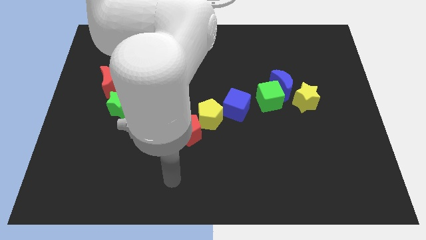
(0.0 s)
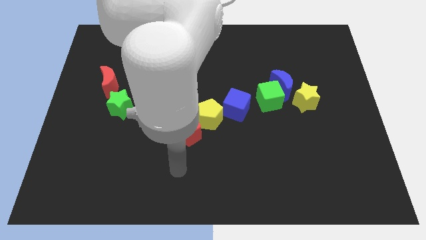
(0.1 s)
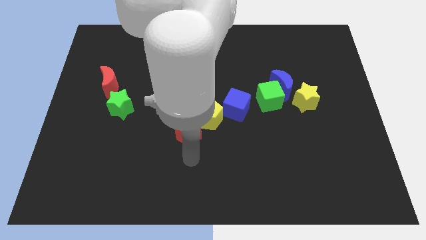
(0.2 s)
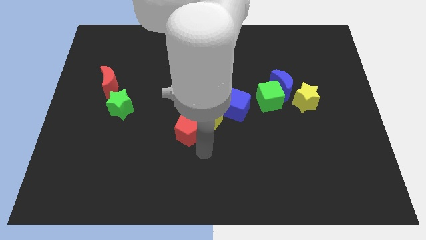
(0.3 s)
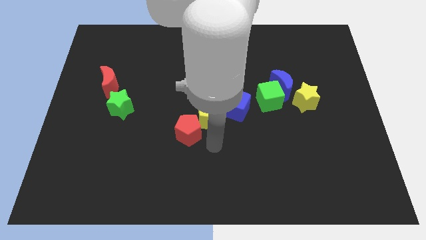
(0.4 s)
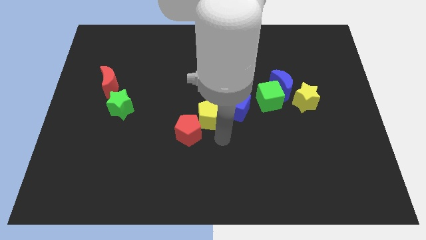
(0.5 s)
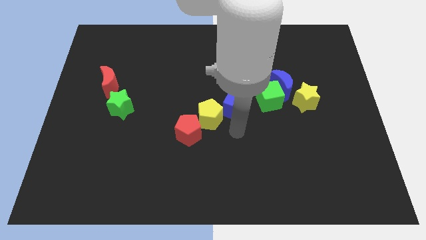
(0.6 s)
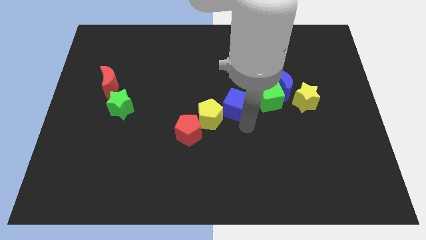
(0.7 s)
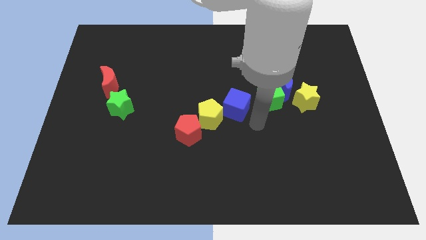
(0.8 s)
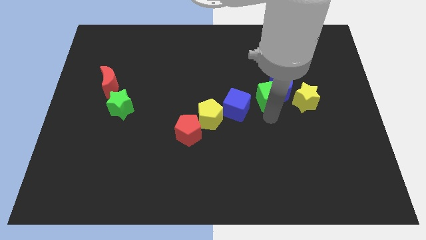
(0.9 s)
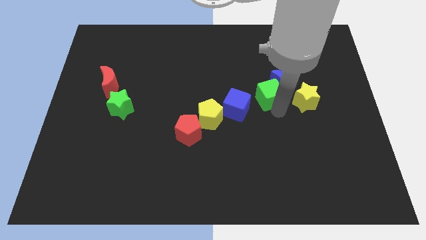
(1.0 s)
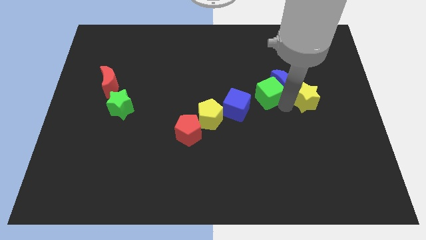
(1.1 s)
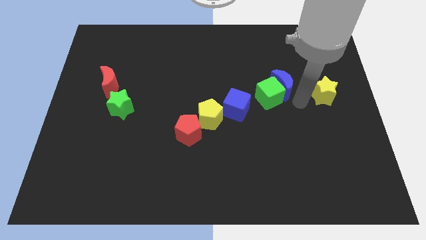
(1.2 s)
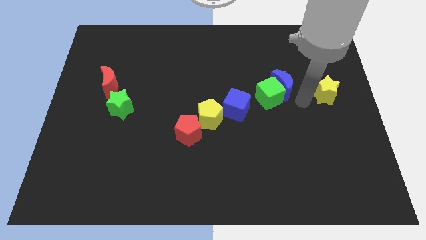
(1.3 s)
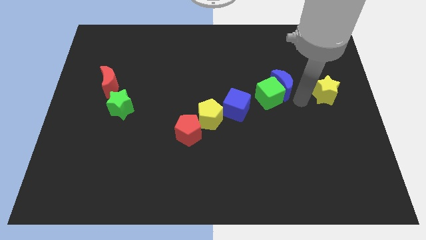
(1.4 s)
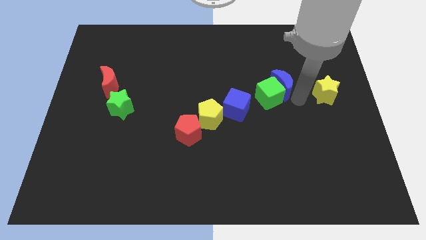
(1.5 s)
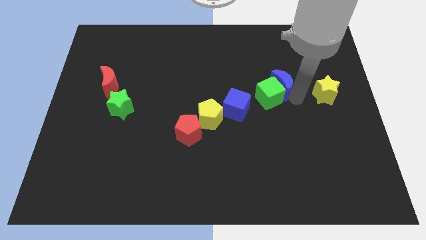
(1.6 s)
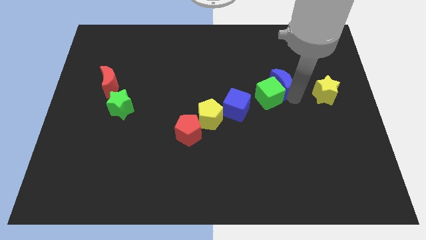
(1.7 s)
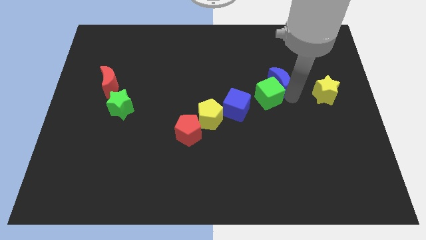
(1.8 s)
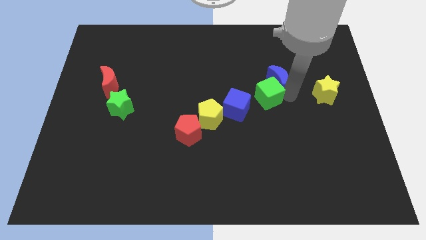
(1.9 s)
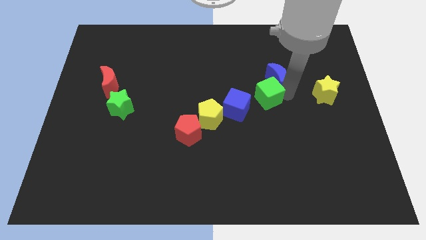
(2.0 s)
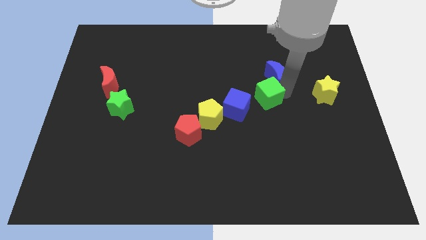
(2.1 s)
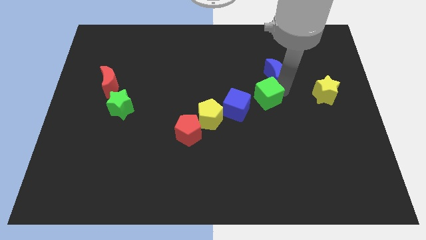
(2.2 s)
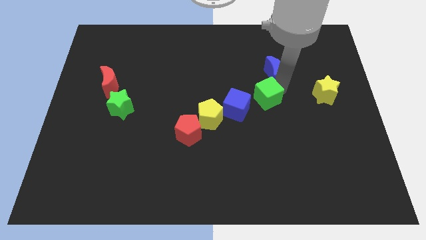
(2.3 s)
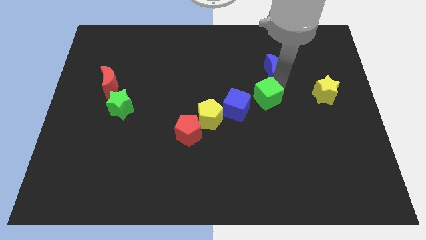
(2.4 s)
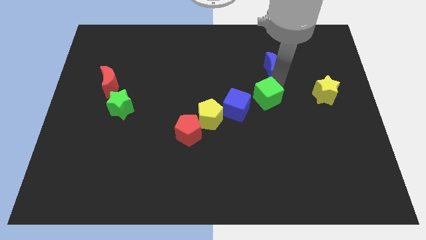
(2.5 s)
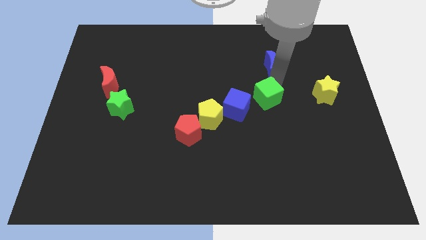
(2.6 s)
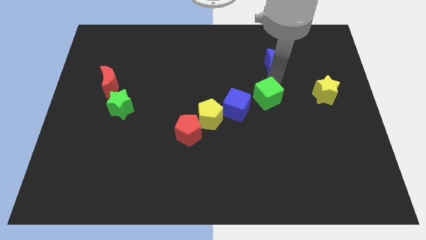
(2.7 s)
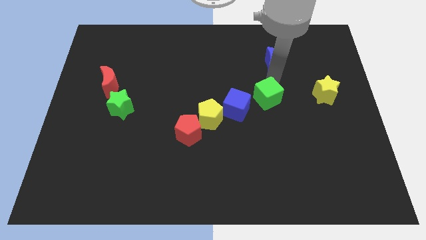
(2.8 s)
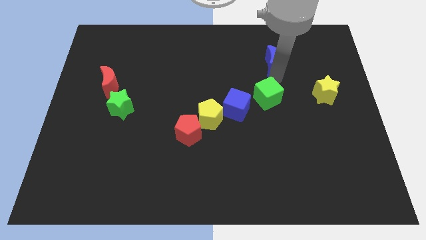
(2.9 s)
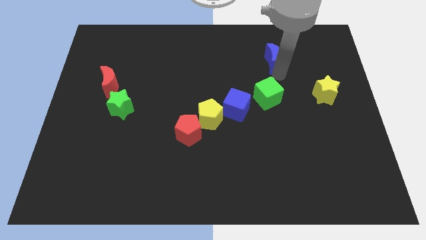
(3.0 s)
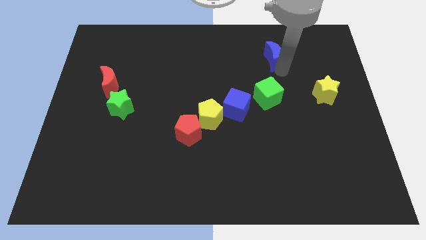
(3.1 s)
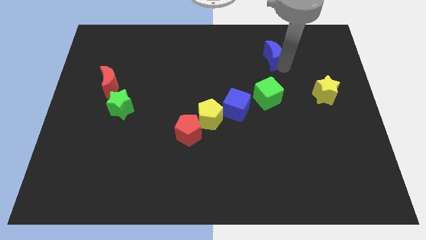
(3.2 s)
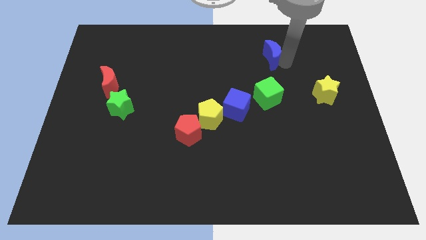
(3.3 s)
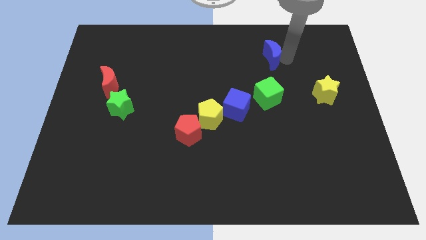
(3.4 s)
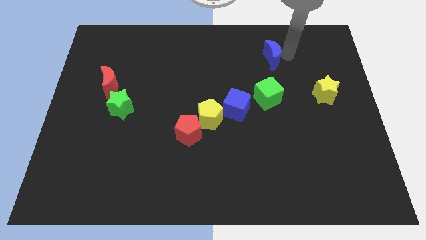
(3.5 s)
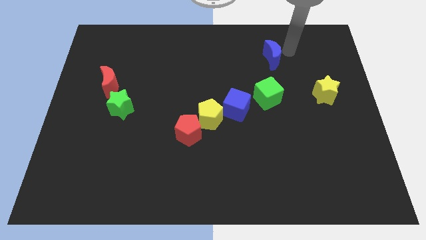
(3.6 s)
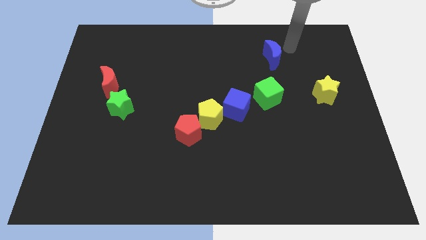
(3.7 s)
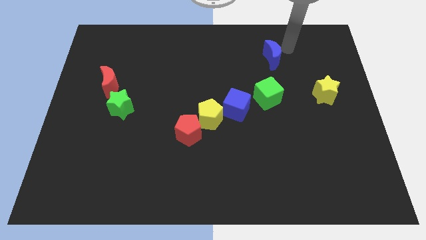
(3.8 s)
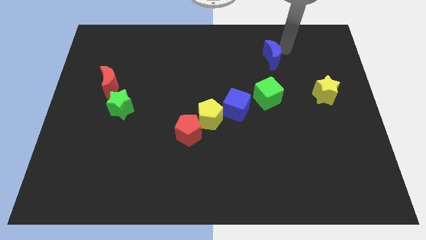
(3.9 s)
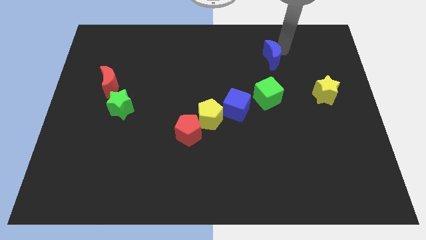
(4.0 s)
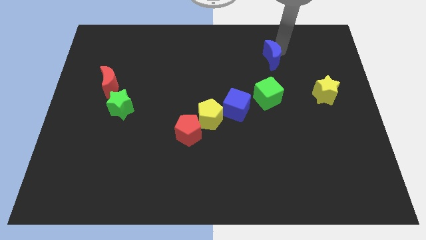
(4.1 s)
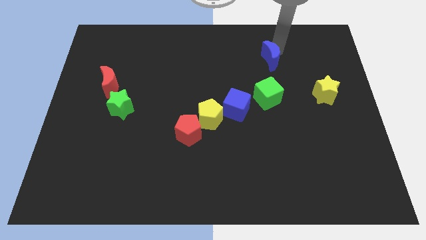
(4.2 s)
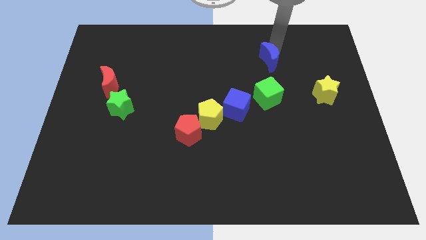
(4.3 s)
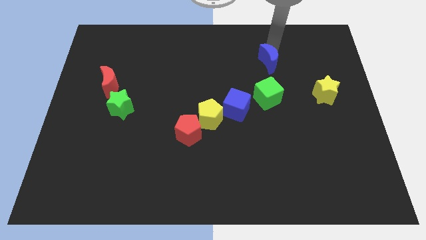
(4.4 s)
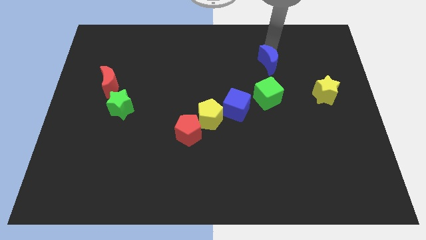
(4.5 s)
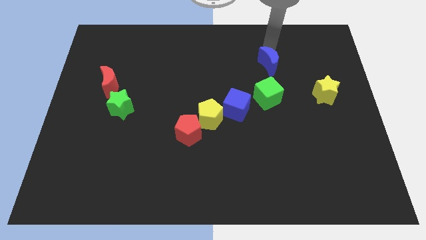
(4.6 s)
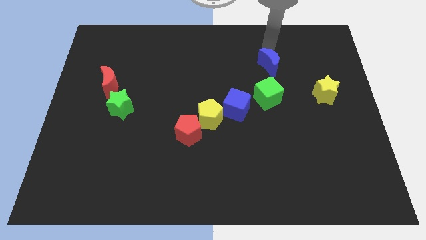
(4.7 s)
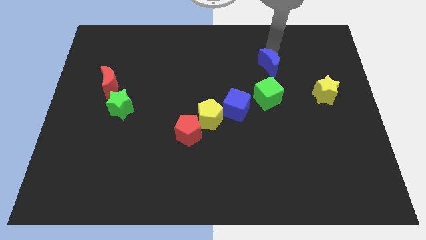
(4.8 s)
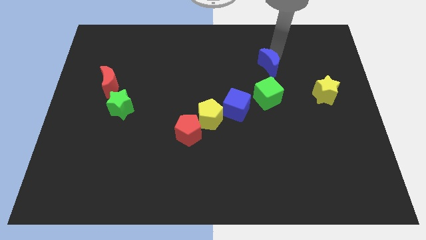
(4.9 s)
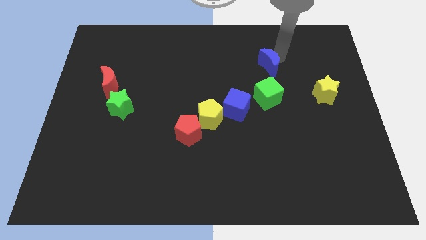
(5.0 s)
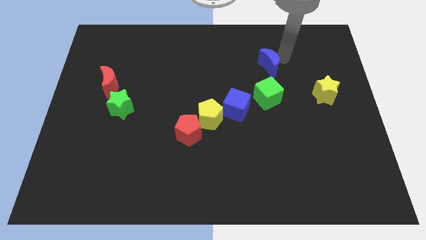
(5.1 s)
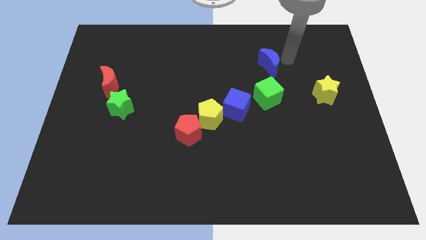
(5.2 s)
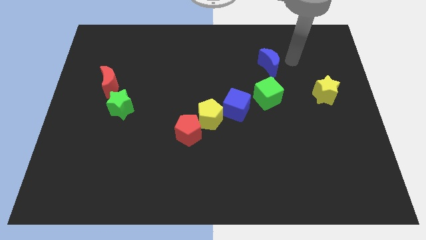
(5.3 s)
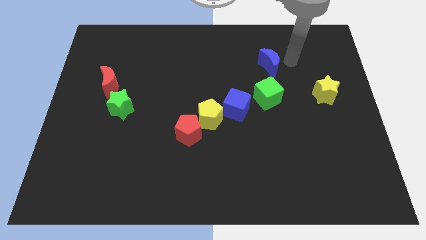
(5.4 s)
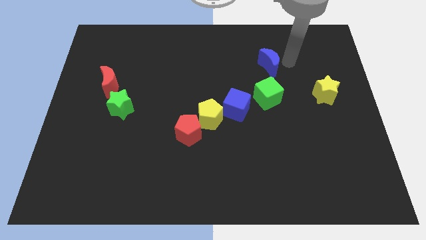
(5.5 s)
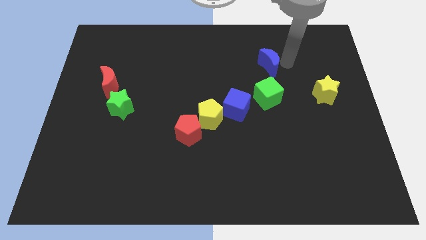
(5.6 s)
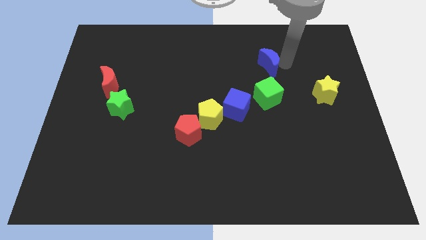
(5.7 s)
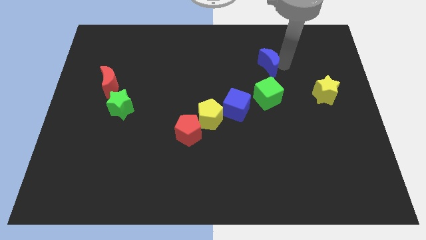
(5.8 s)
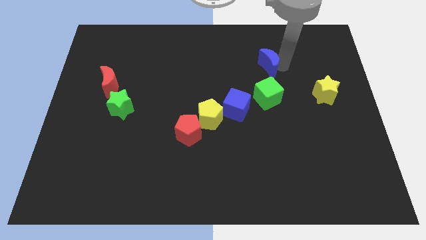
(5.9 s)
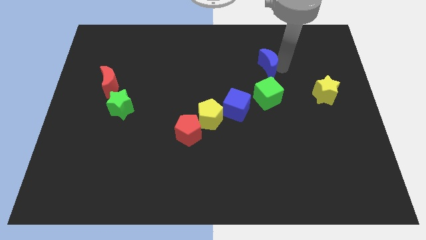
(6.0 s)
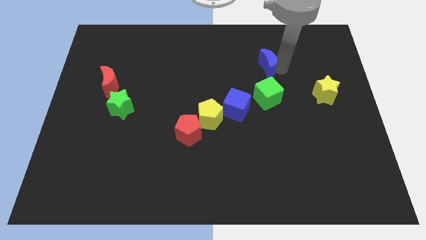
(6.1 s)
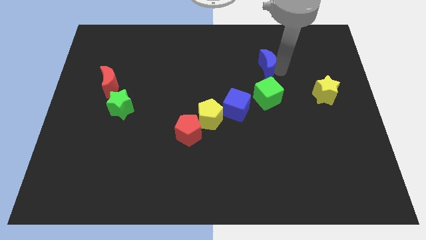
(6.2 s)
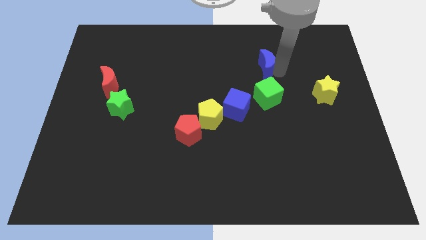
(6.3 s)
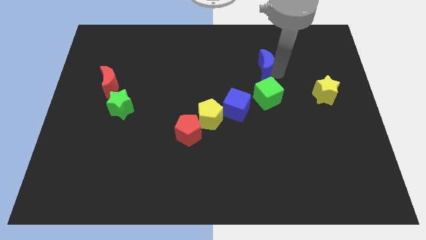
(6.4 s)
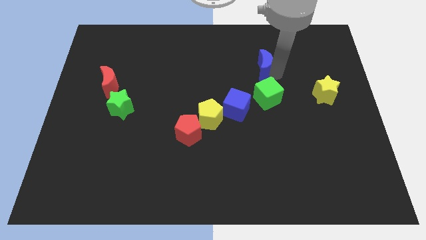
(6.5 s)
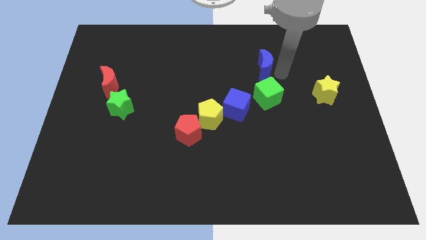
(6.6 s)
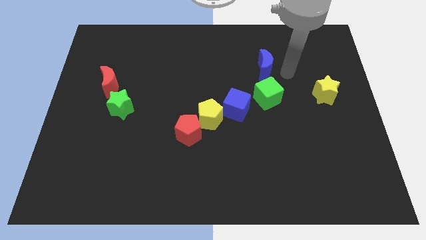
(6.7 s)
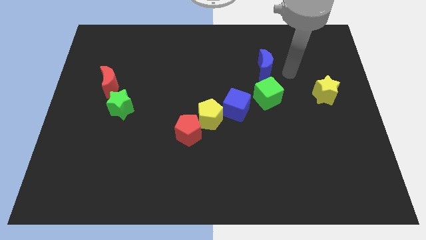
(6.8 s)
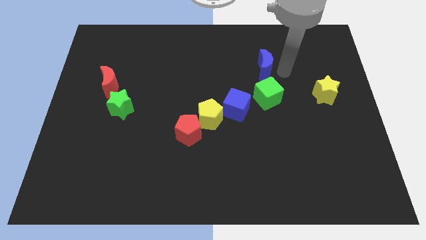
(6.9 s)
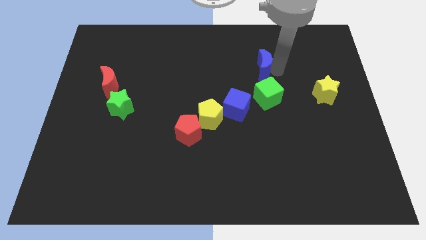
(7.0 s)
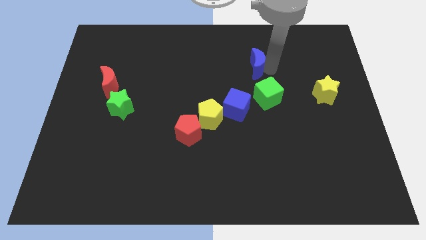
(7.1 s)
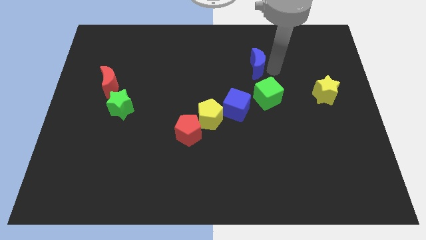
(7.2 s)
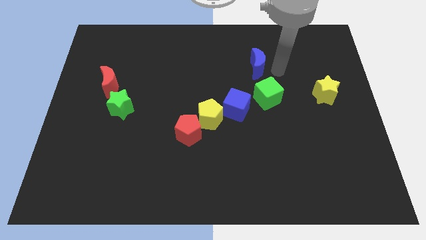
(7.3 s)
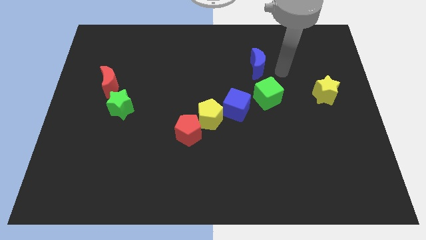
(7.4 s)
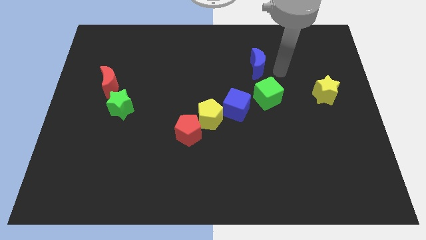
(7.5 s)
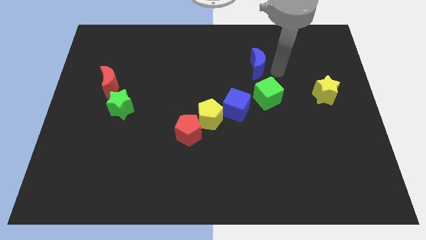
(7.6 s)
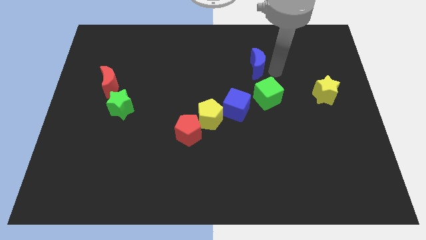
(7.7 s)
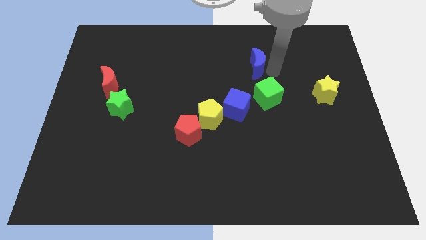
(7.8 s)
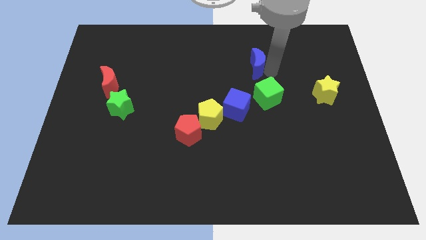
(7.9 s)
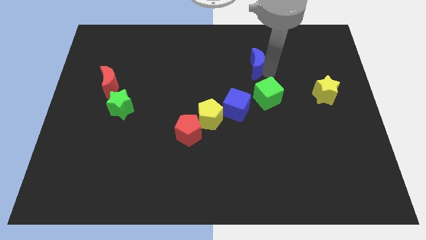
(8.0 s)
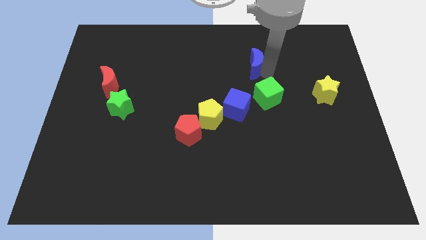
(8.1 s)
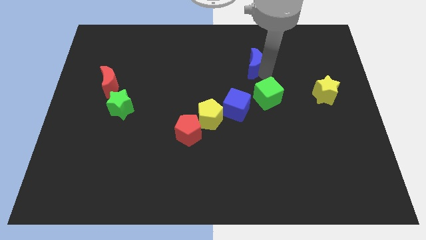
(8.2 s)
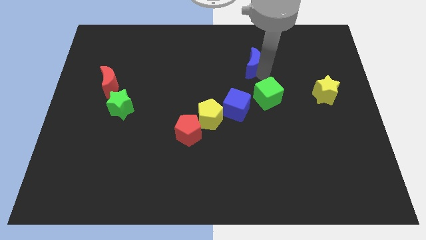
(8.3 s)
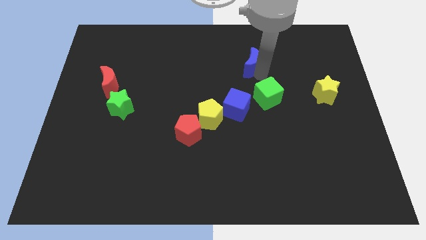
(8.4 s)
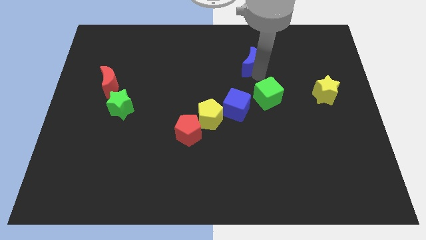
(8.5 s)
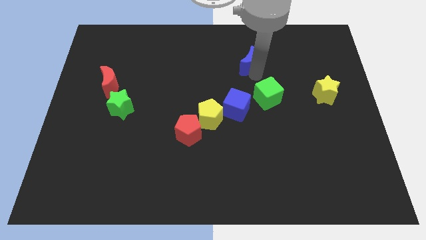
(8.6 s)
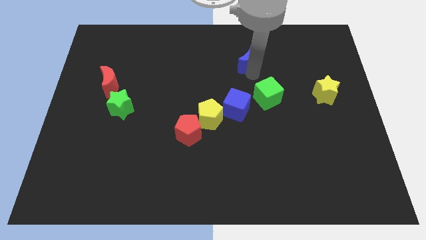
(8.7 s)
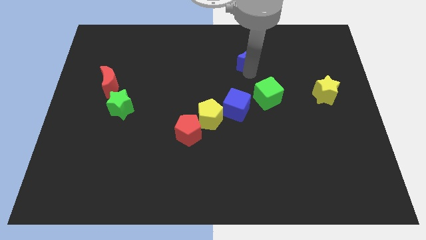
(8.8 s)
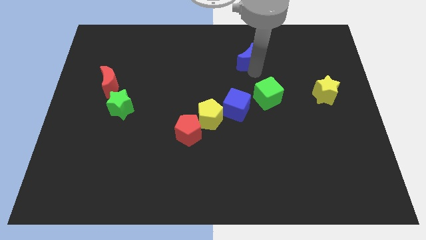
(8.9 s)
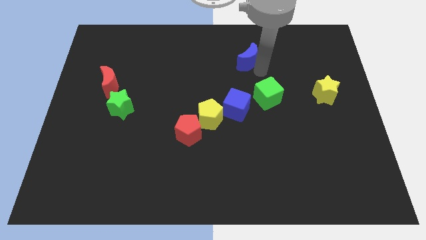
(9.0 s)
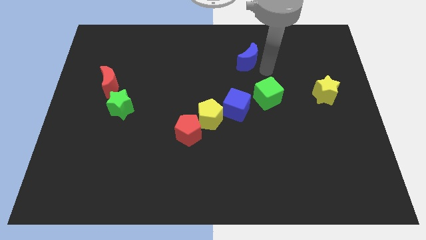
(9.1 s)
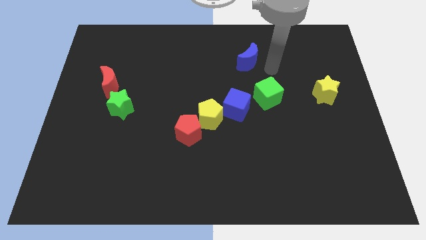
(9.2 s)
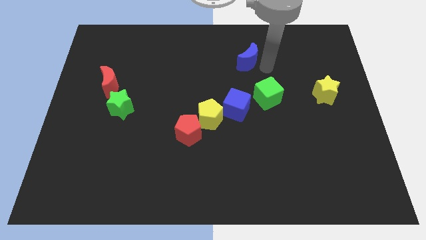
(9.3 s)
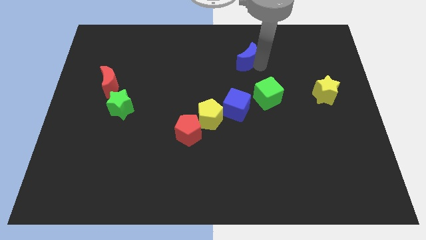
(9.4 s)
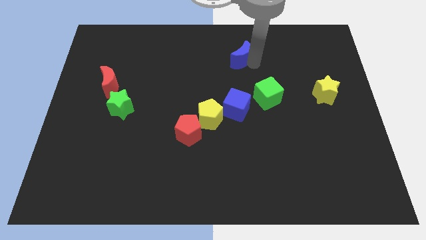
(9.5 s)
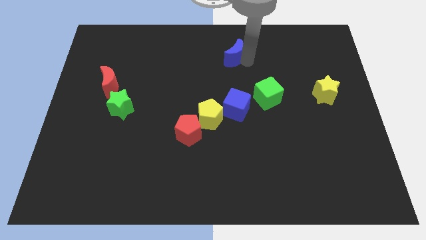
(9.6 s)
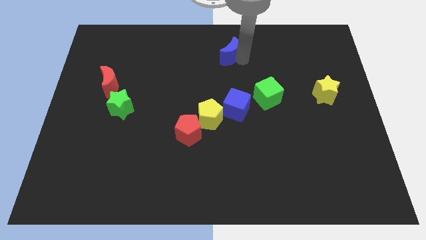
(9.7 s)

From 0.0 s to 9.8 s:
slide the blue moon to the top side
